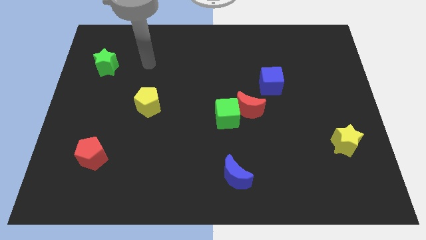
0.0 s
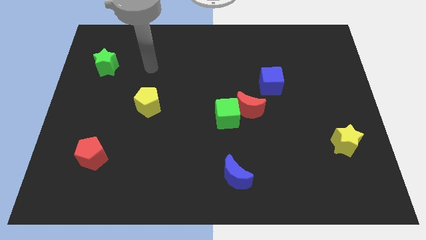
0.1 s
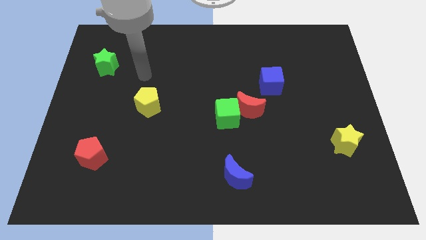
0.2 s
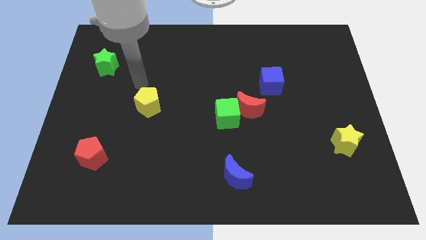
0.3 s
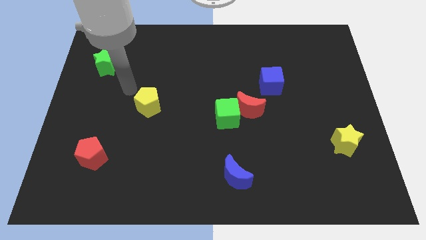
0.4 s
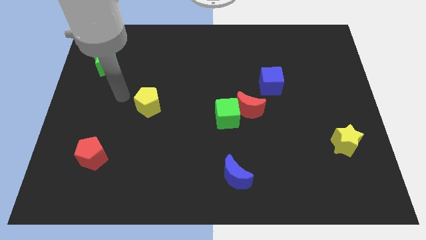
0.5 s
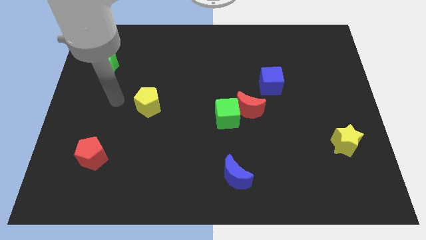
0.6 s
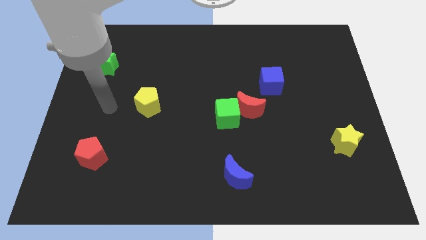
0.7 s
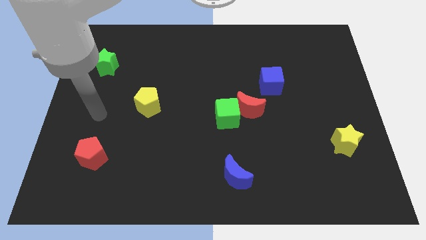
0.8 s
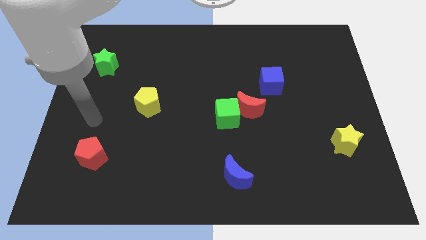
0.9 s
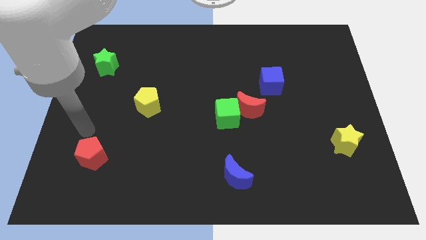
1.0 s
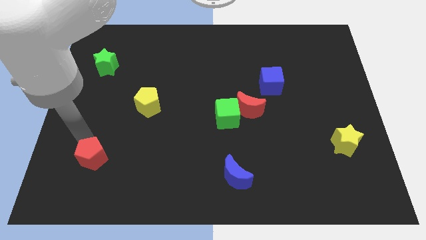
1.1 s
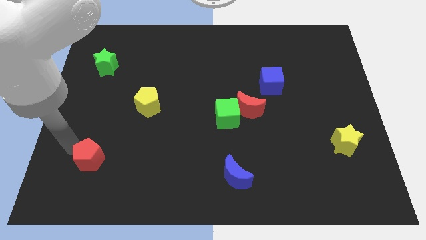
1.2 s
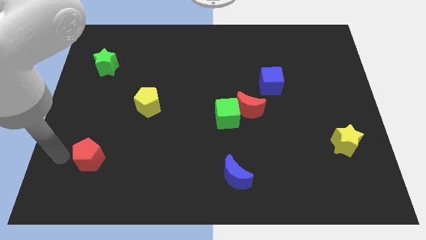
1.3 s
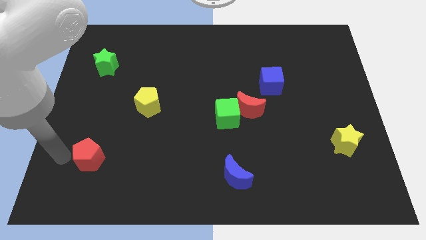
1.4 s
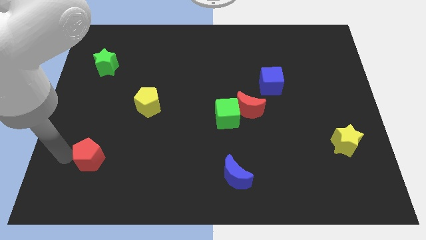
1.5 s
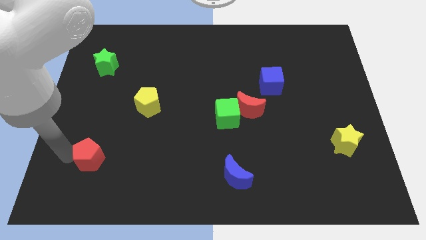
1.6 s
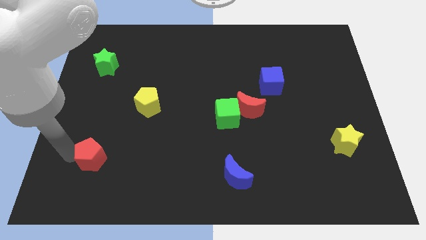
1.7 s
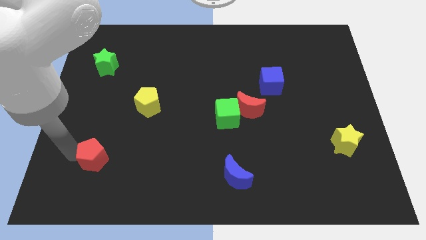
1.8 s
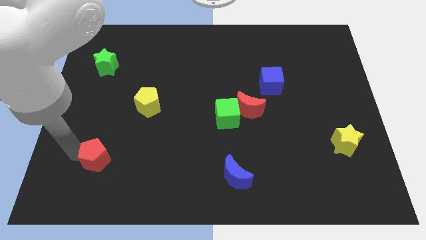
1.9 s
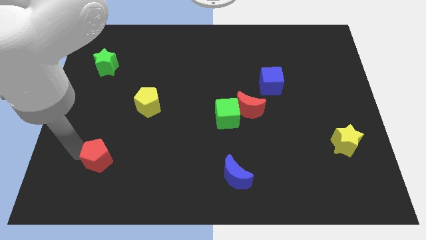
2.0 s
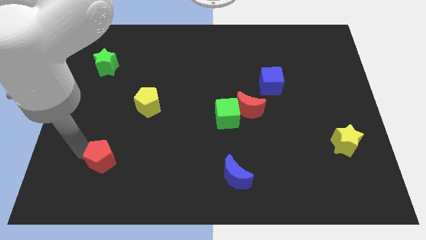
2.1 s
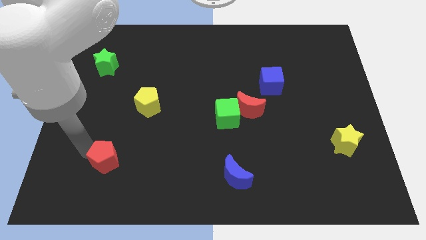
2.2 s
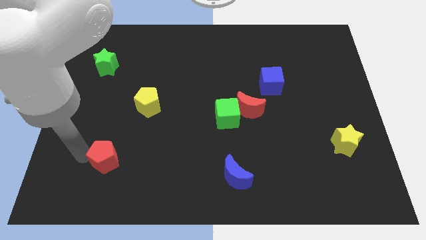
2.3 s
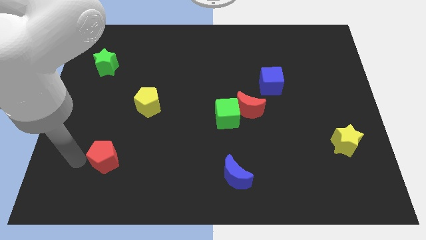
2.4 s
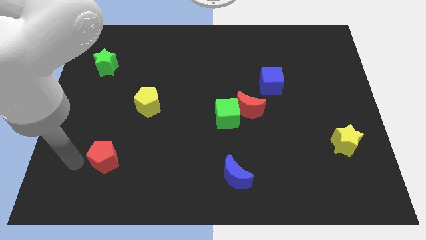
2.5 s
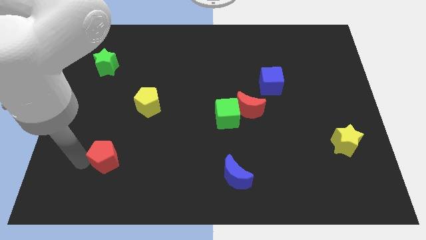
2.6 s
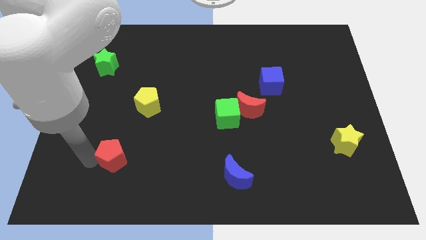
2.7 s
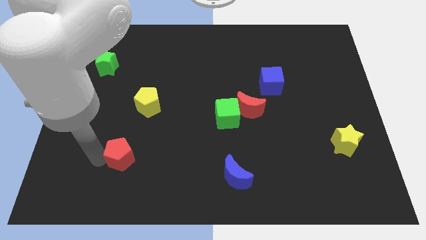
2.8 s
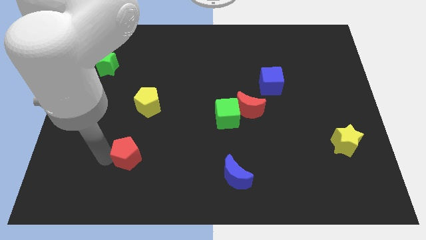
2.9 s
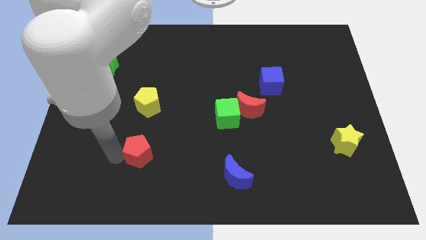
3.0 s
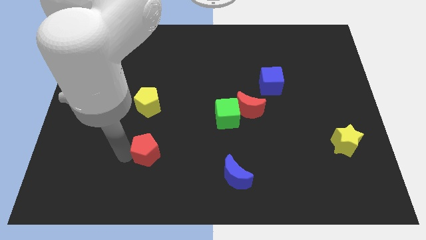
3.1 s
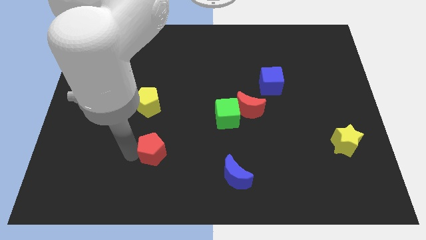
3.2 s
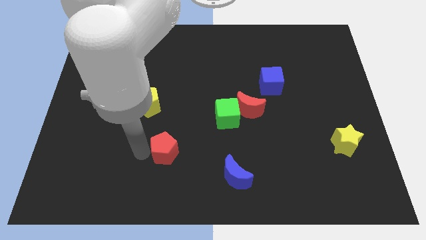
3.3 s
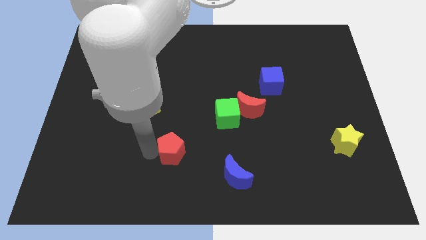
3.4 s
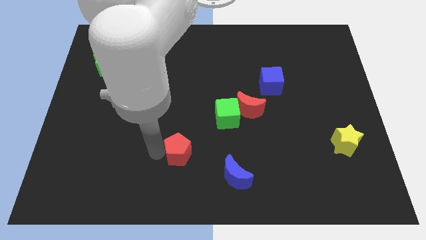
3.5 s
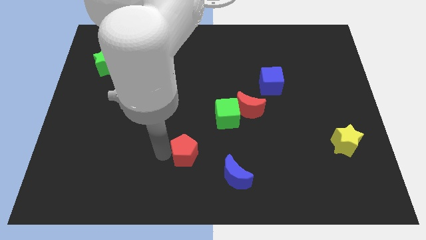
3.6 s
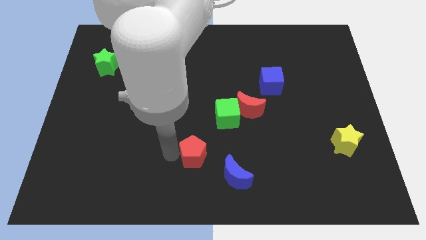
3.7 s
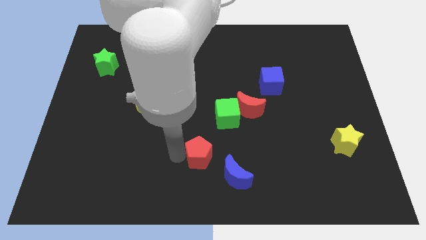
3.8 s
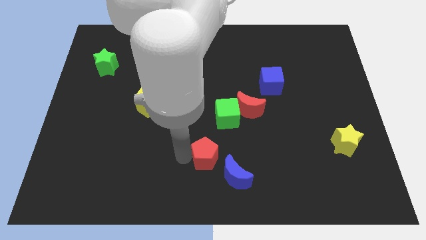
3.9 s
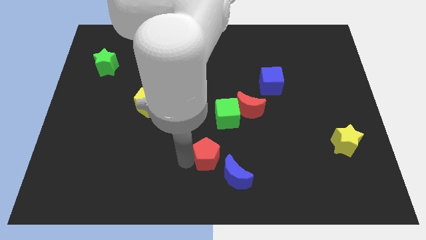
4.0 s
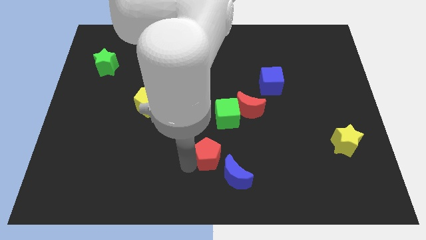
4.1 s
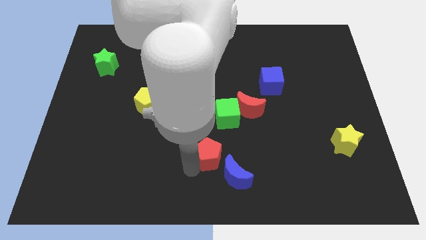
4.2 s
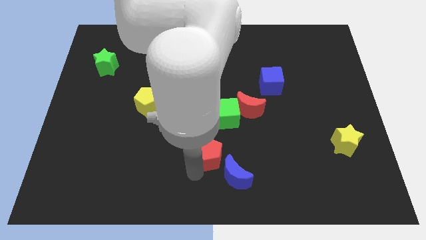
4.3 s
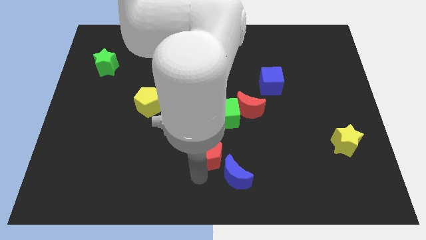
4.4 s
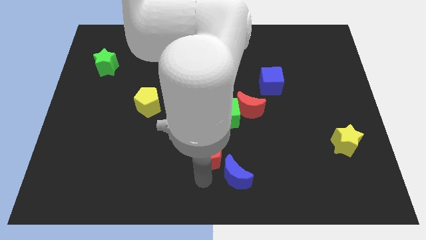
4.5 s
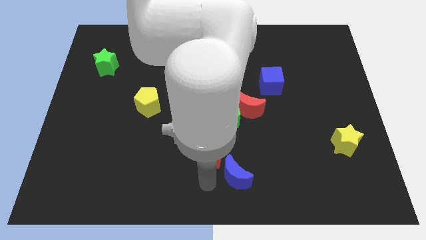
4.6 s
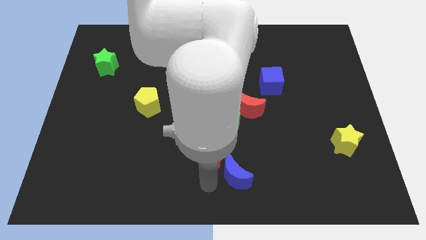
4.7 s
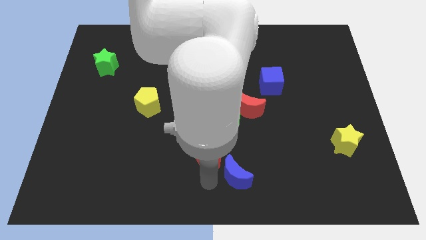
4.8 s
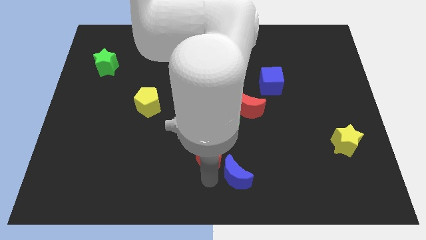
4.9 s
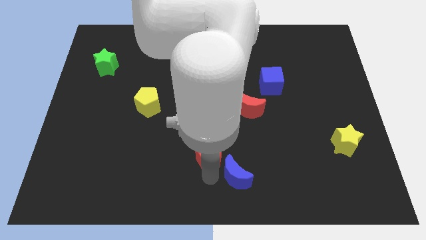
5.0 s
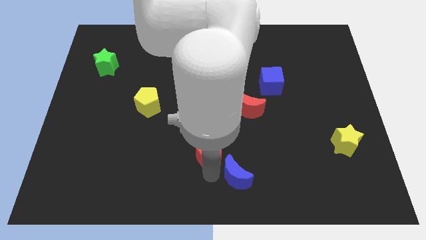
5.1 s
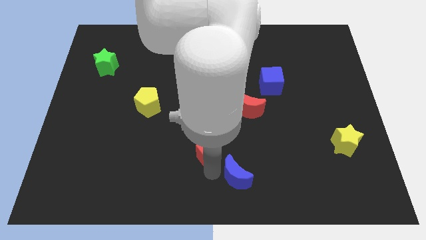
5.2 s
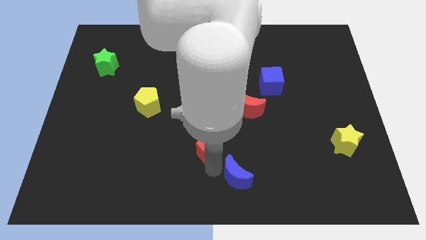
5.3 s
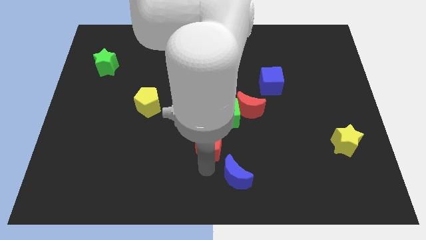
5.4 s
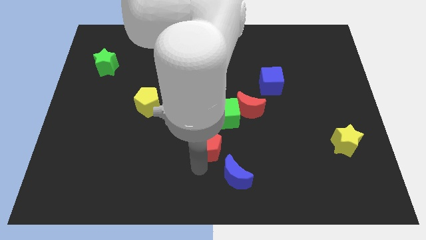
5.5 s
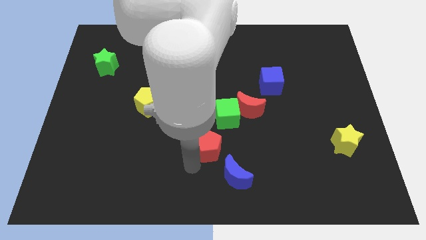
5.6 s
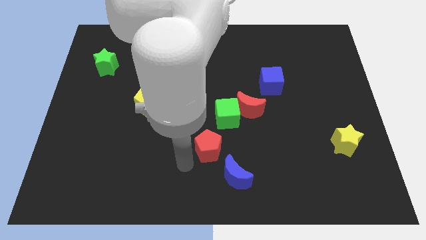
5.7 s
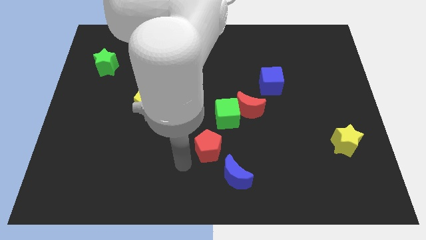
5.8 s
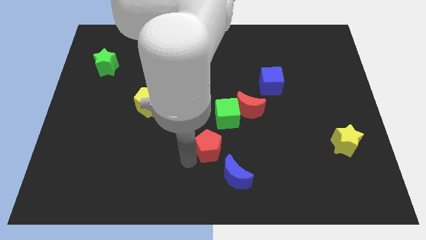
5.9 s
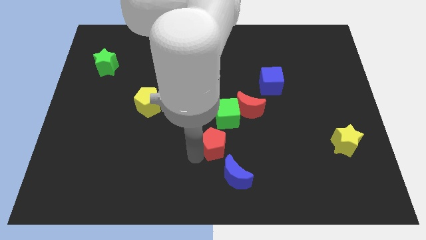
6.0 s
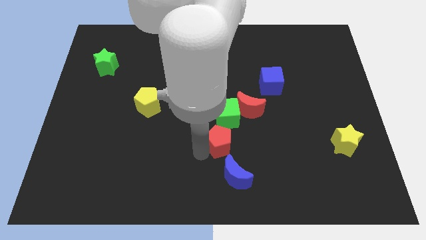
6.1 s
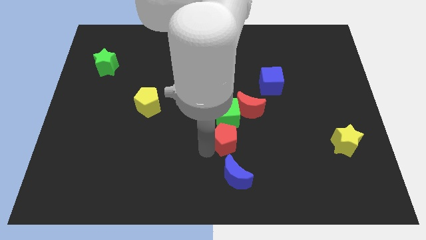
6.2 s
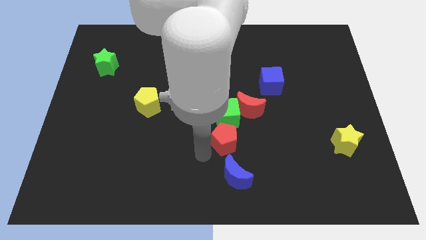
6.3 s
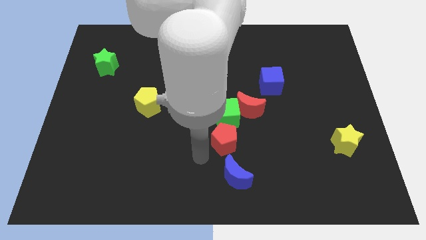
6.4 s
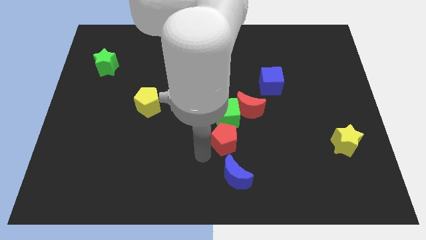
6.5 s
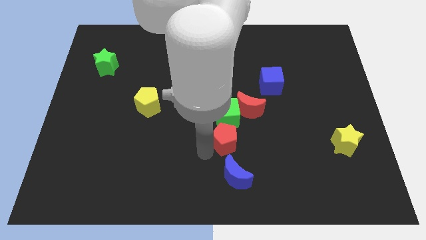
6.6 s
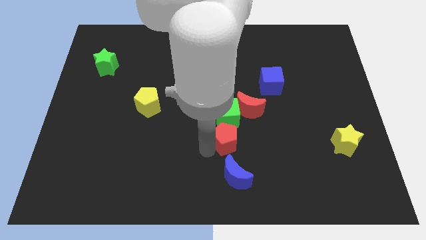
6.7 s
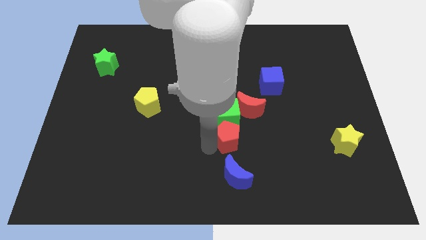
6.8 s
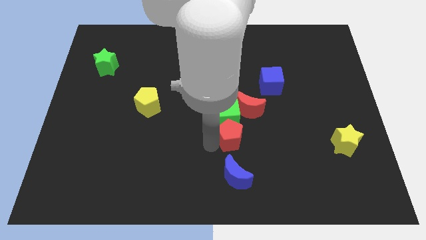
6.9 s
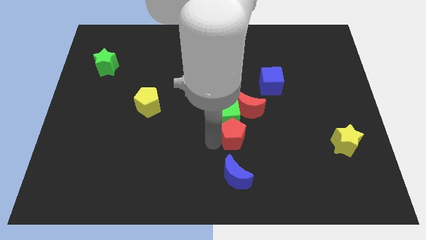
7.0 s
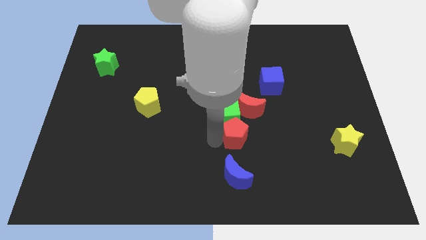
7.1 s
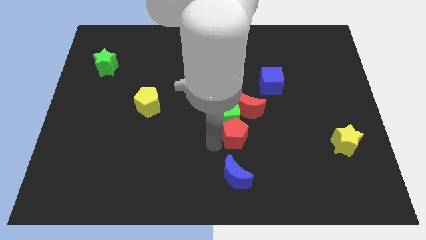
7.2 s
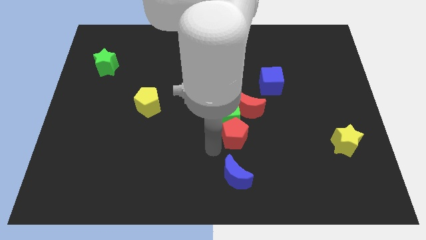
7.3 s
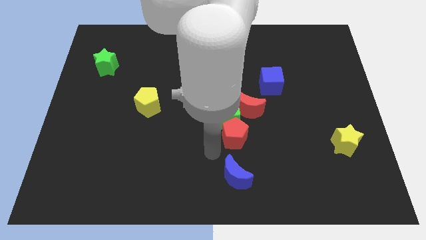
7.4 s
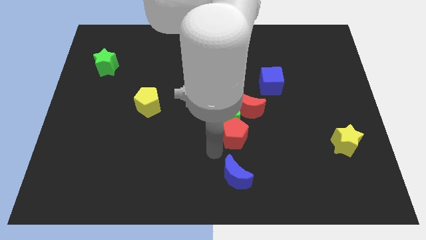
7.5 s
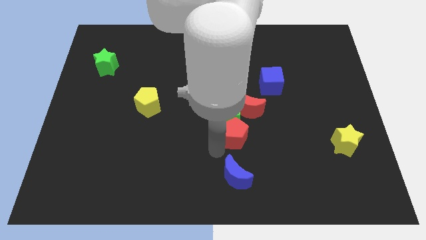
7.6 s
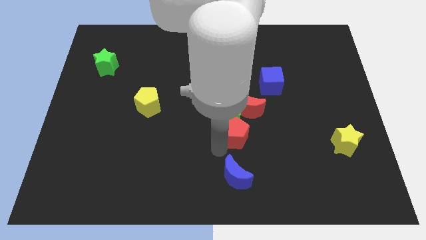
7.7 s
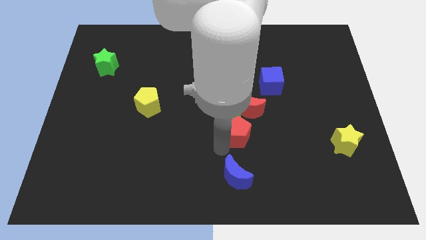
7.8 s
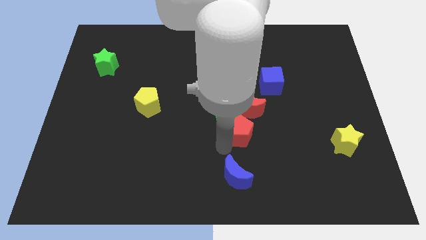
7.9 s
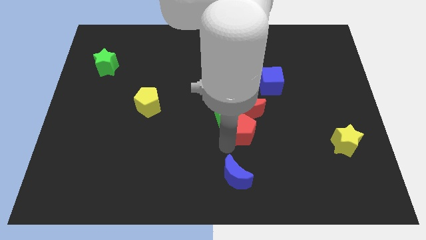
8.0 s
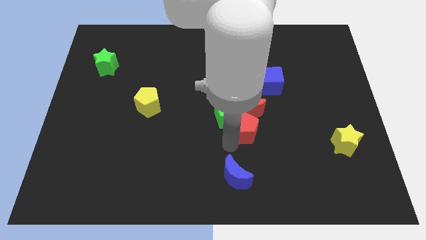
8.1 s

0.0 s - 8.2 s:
move the red pentagon close to the red moon
